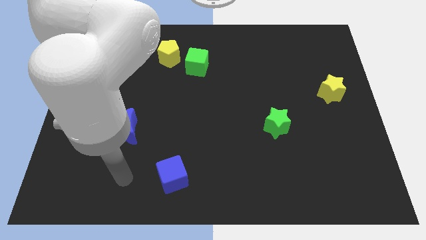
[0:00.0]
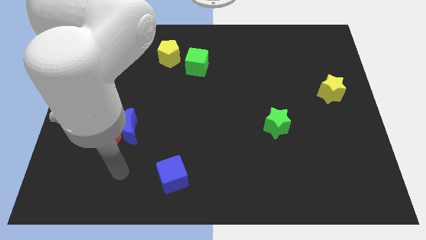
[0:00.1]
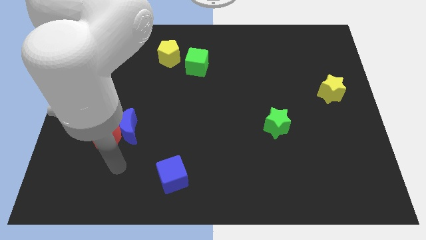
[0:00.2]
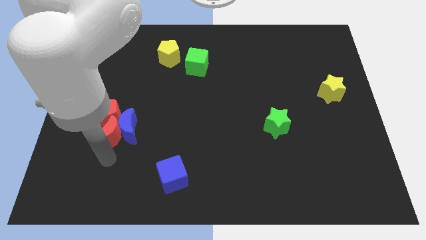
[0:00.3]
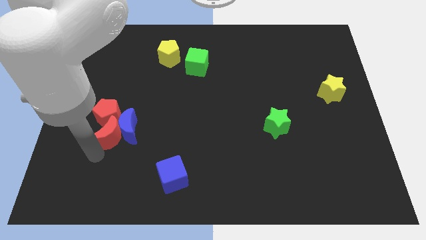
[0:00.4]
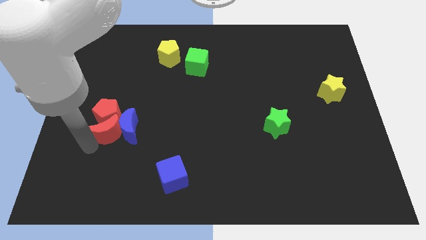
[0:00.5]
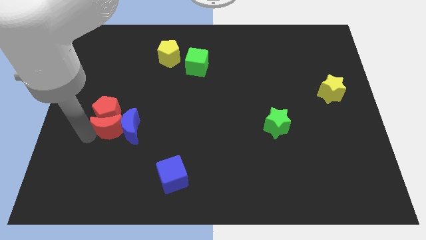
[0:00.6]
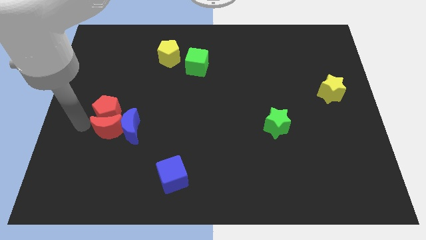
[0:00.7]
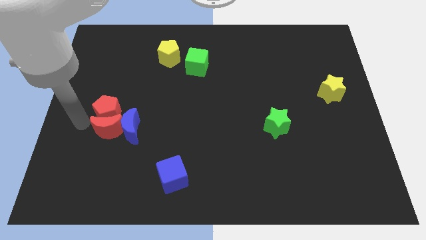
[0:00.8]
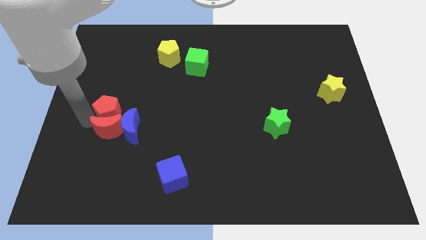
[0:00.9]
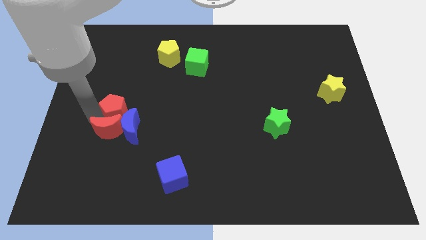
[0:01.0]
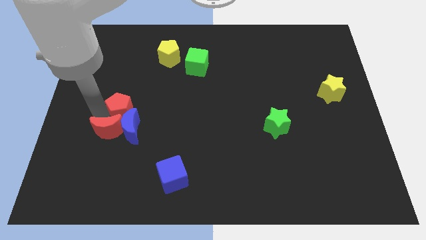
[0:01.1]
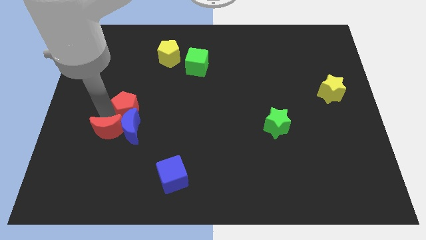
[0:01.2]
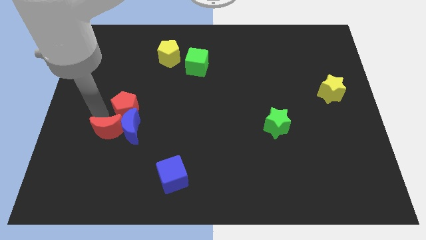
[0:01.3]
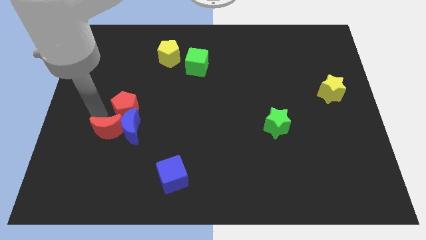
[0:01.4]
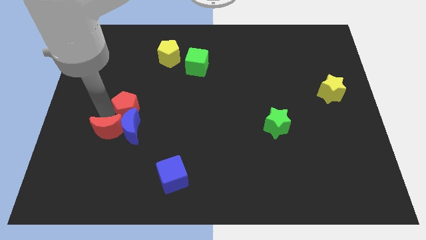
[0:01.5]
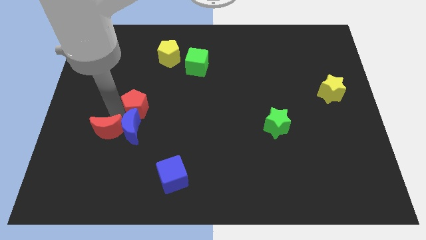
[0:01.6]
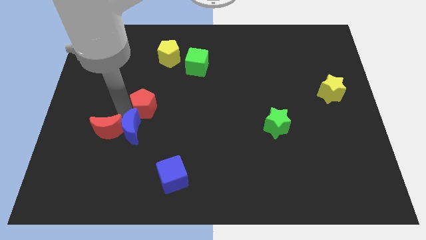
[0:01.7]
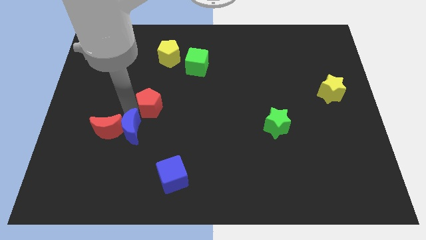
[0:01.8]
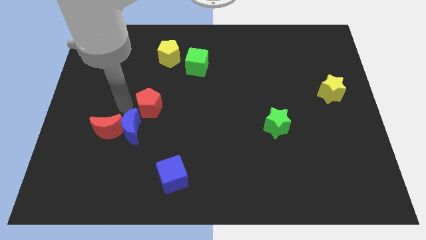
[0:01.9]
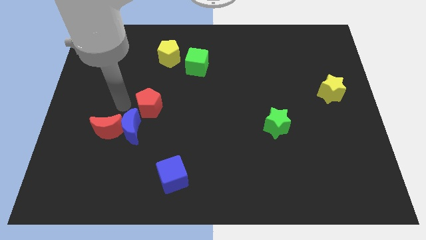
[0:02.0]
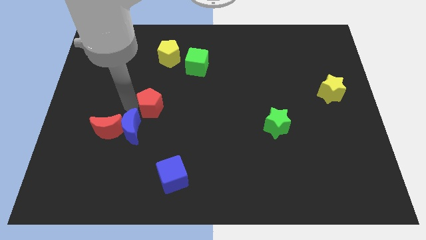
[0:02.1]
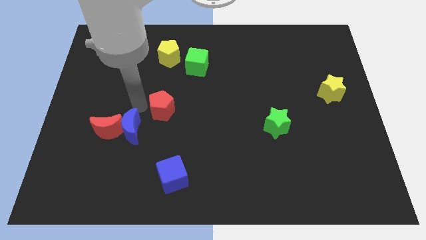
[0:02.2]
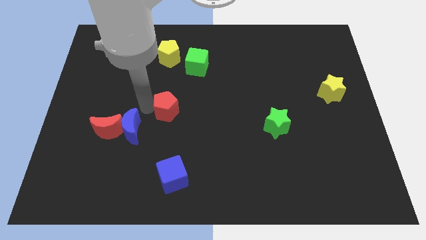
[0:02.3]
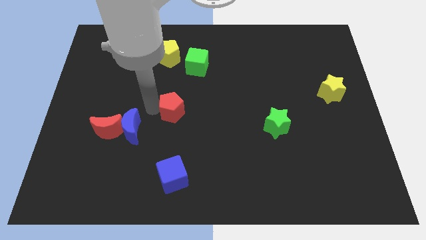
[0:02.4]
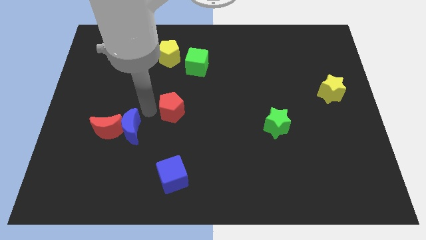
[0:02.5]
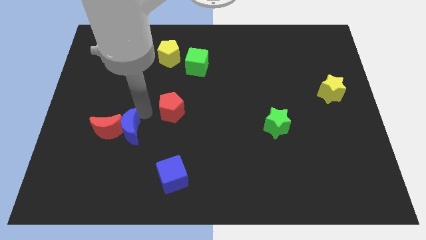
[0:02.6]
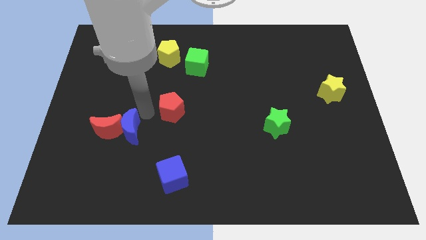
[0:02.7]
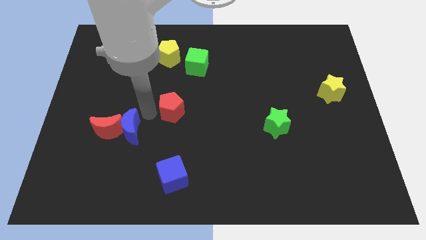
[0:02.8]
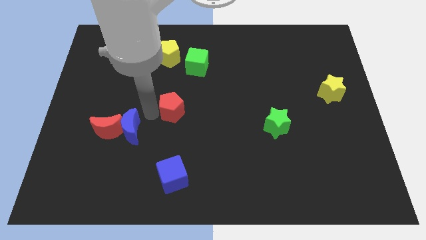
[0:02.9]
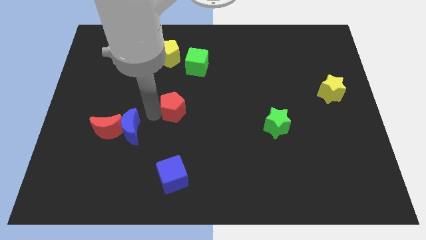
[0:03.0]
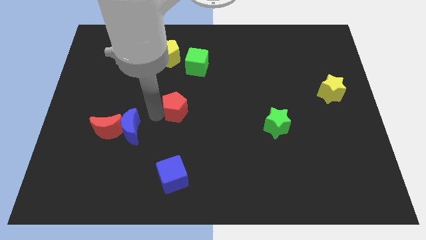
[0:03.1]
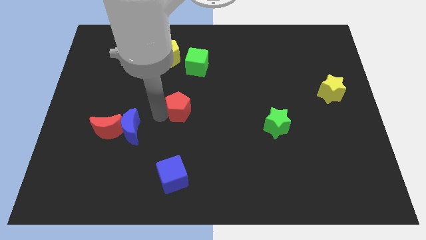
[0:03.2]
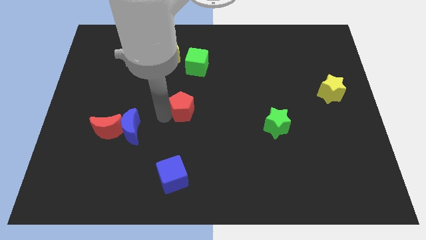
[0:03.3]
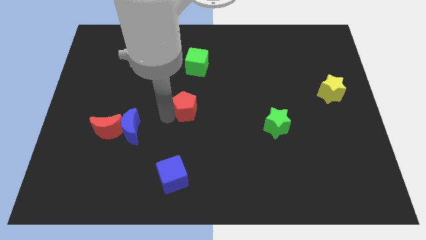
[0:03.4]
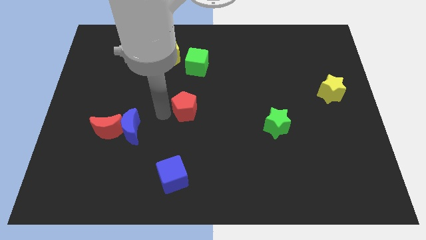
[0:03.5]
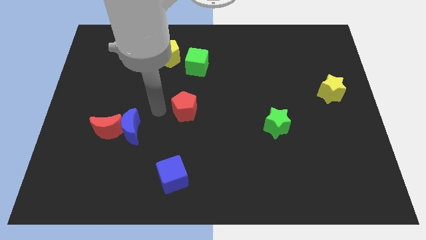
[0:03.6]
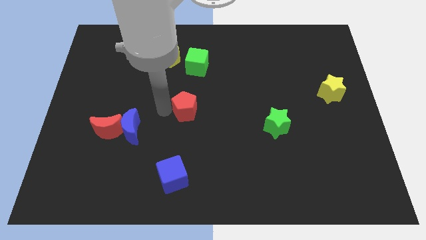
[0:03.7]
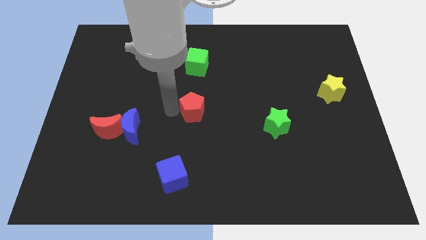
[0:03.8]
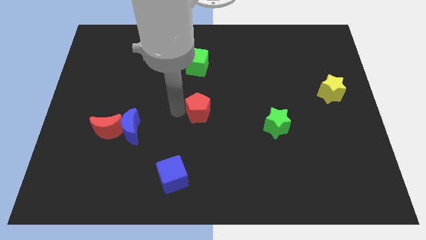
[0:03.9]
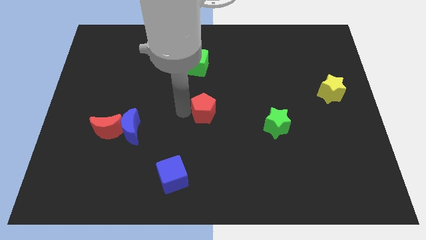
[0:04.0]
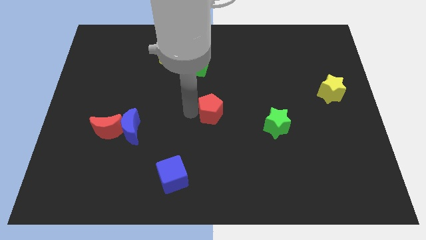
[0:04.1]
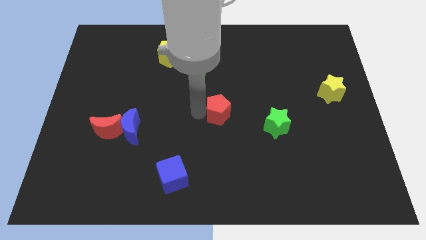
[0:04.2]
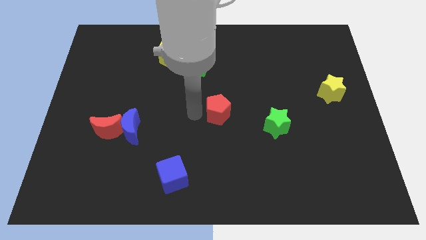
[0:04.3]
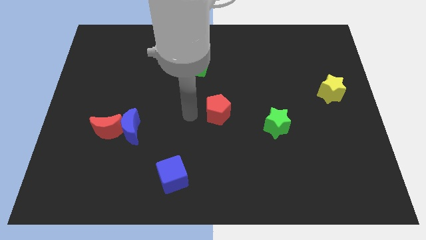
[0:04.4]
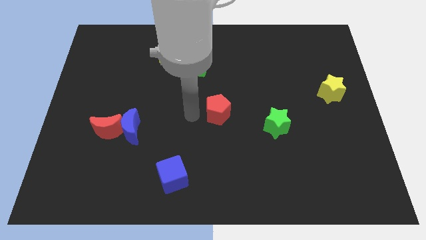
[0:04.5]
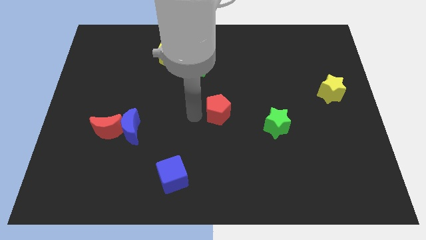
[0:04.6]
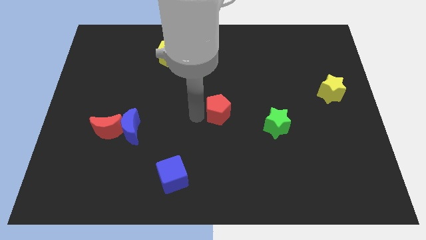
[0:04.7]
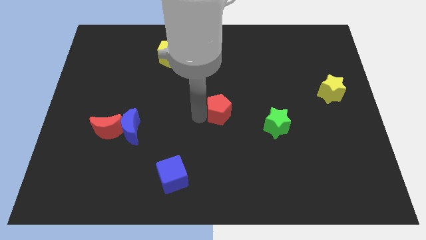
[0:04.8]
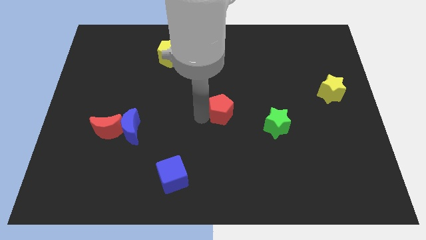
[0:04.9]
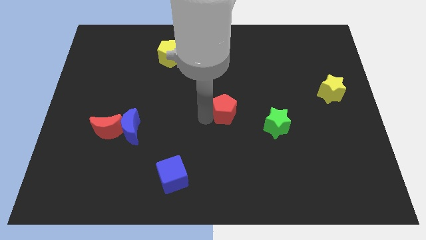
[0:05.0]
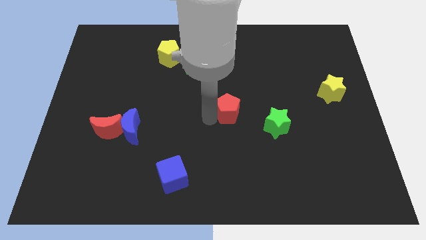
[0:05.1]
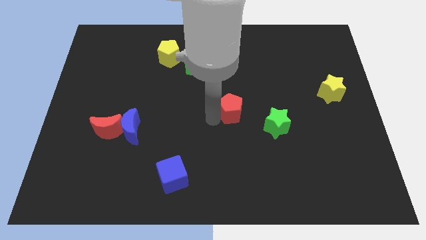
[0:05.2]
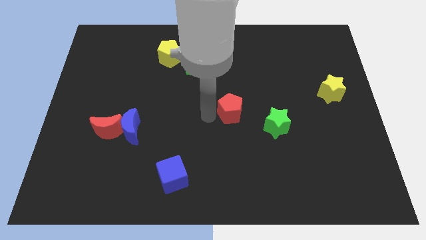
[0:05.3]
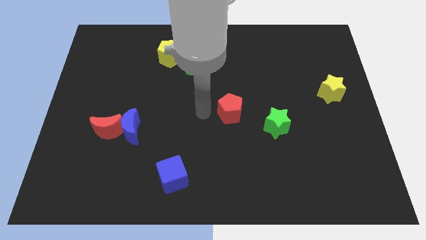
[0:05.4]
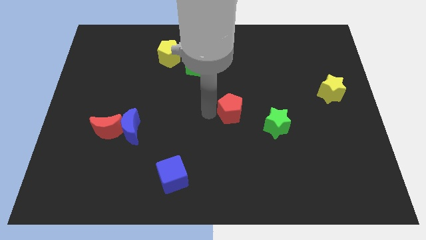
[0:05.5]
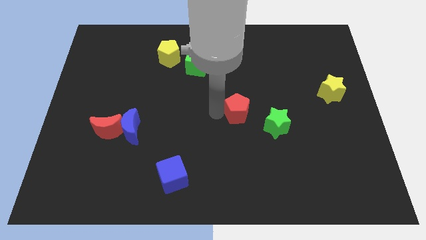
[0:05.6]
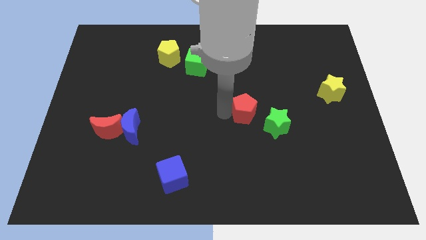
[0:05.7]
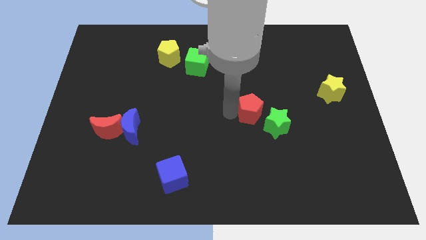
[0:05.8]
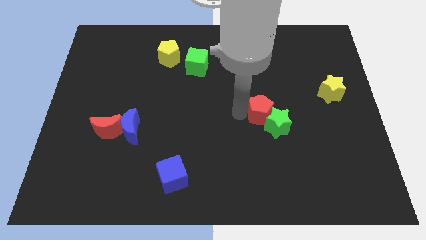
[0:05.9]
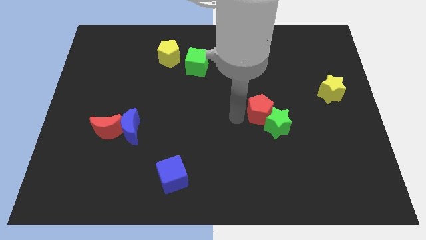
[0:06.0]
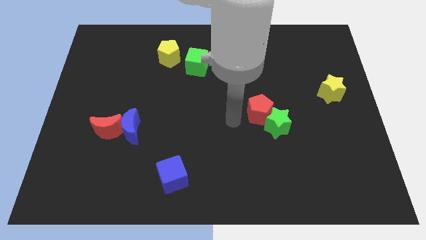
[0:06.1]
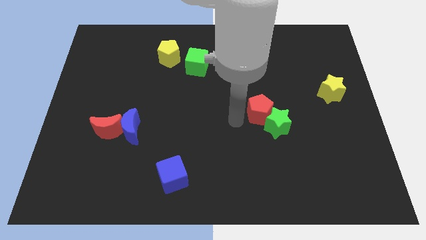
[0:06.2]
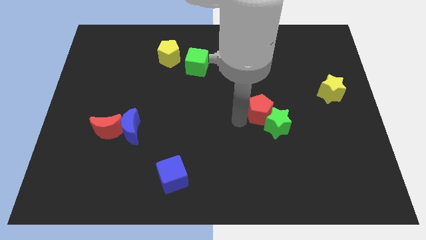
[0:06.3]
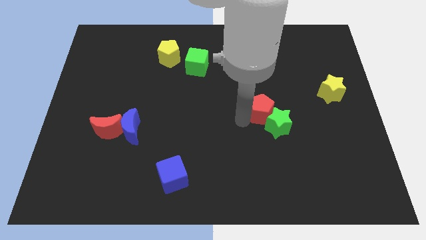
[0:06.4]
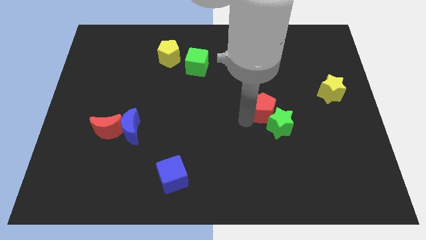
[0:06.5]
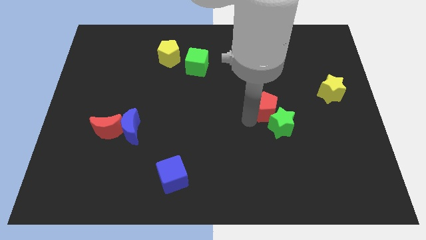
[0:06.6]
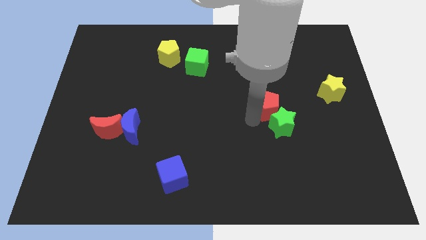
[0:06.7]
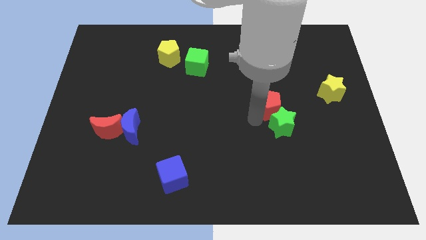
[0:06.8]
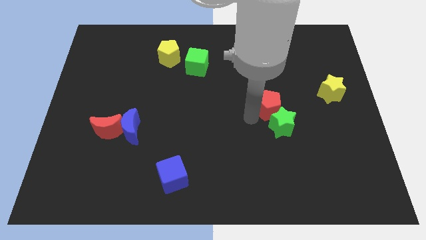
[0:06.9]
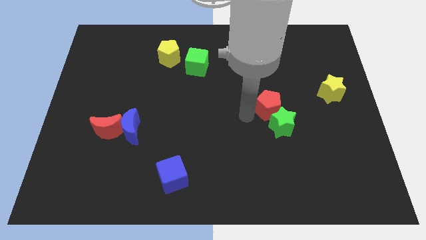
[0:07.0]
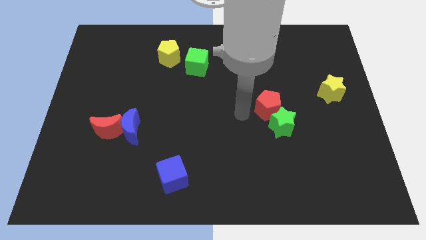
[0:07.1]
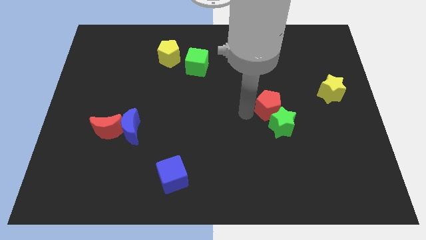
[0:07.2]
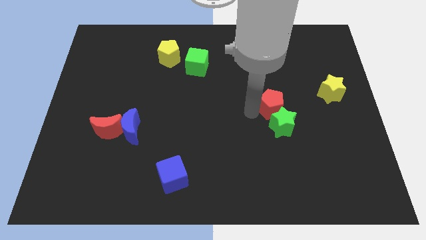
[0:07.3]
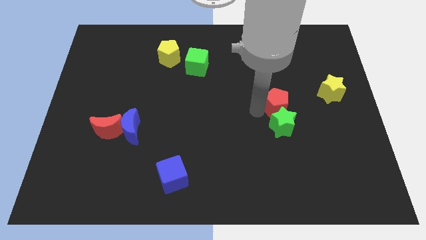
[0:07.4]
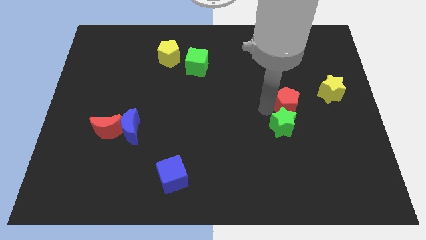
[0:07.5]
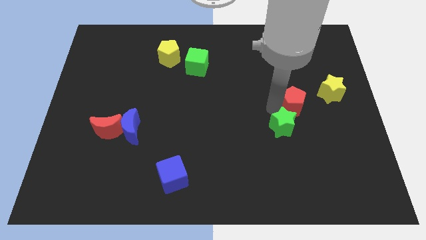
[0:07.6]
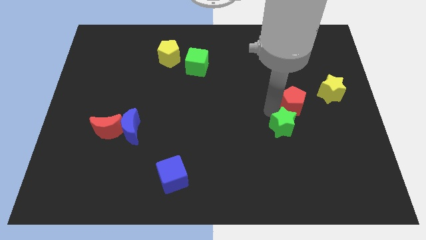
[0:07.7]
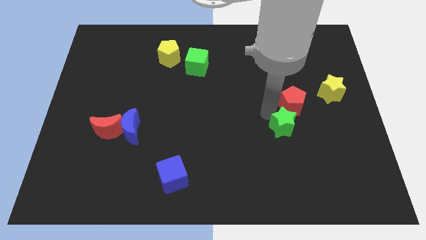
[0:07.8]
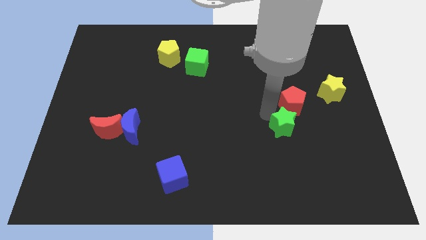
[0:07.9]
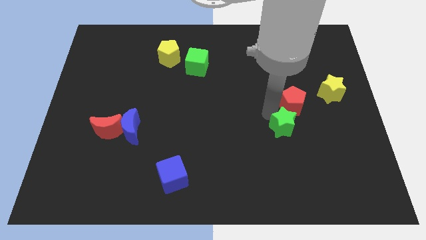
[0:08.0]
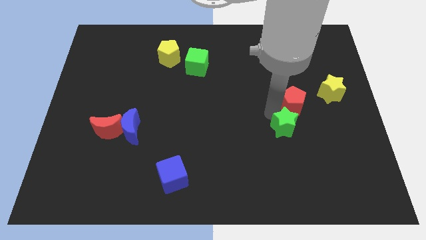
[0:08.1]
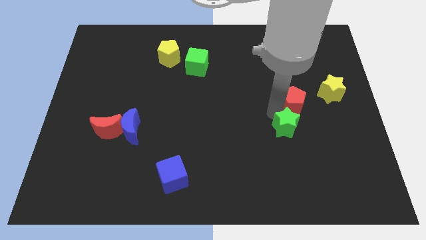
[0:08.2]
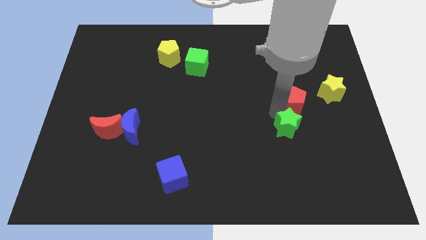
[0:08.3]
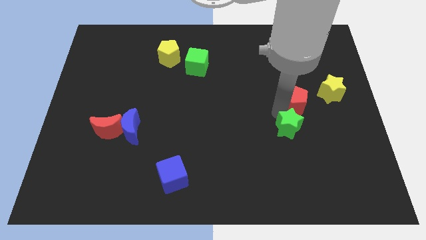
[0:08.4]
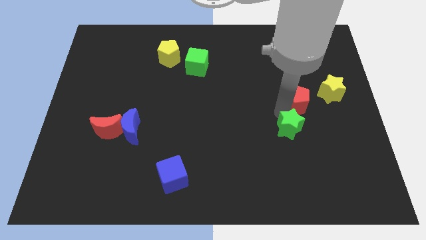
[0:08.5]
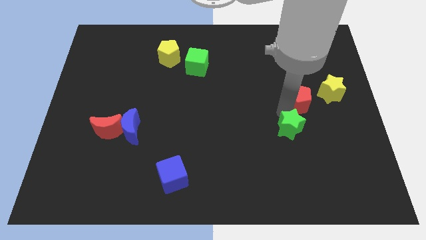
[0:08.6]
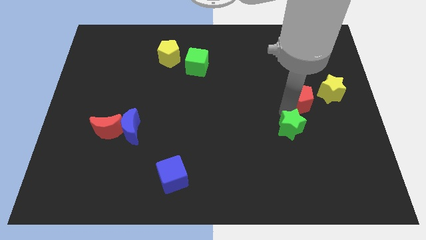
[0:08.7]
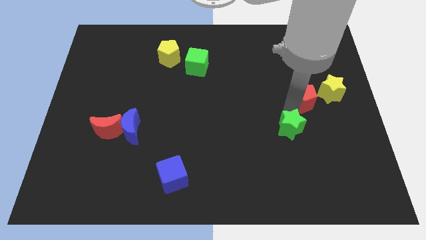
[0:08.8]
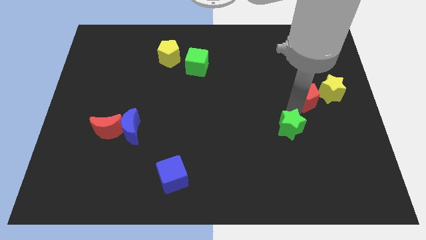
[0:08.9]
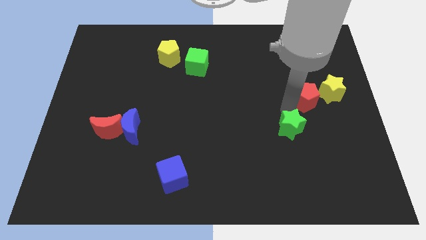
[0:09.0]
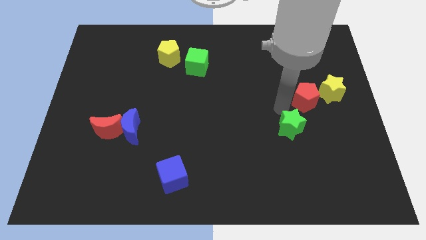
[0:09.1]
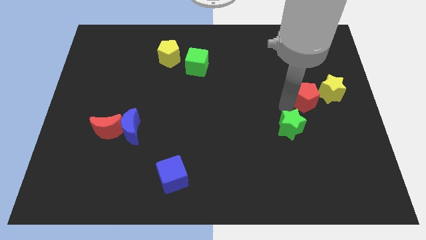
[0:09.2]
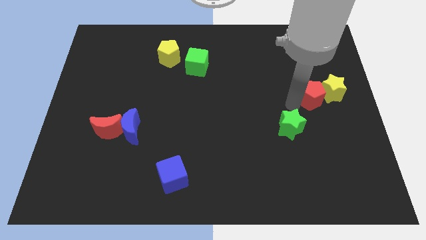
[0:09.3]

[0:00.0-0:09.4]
put the red pentagon close to the yellow star
